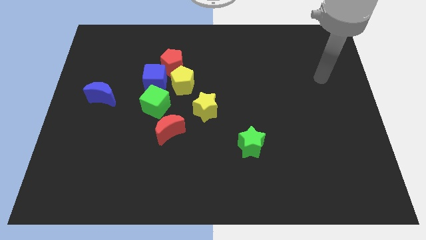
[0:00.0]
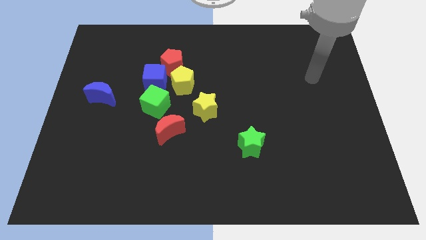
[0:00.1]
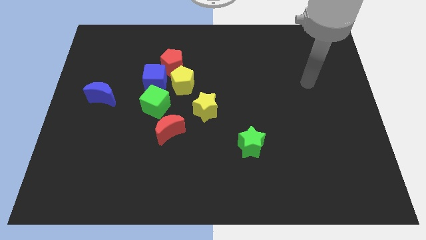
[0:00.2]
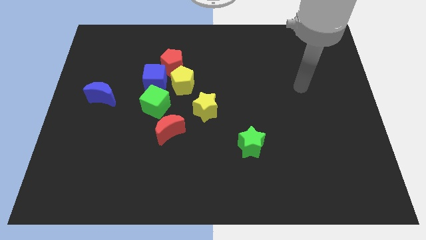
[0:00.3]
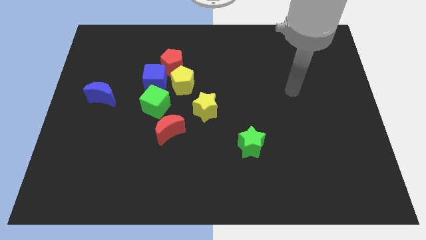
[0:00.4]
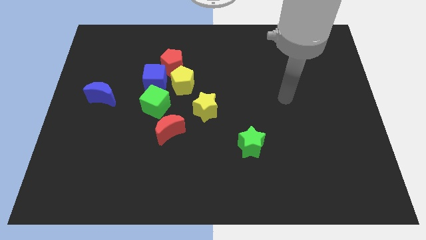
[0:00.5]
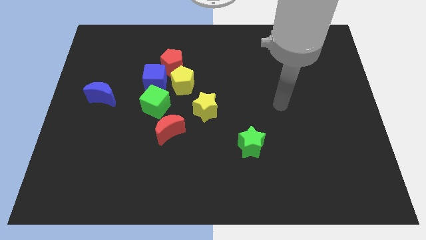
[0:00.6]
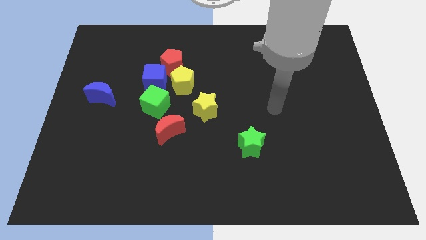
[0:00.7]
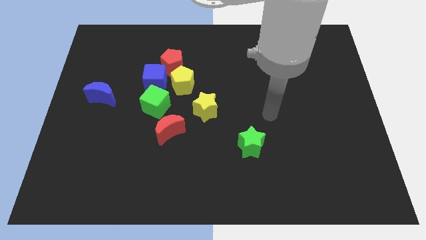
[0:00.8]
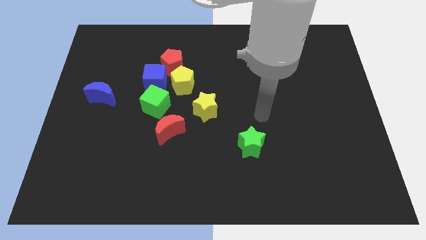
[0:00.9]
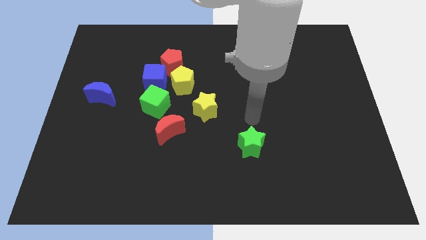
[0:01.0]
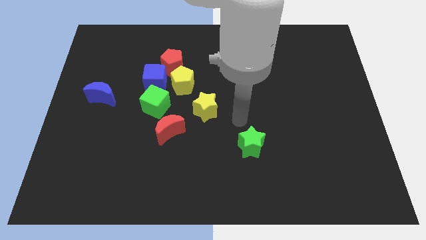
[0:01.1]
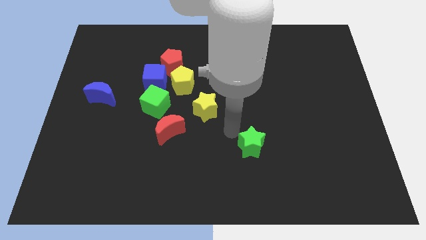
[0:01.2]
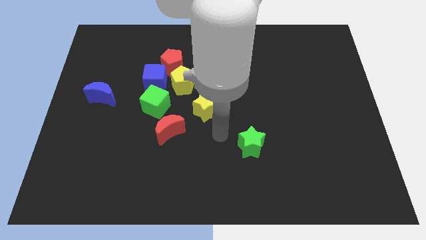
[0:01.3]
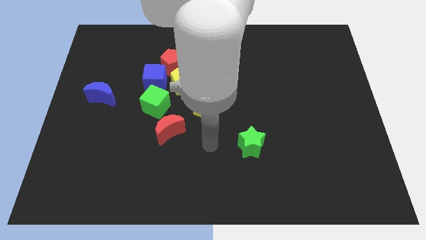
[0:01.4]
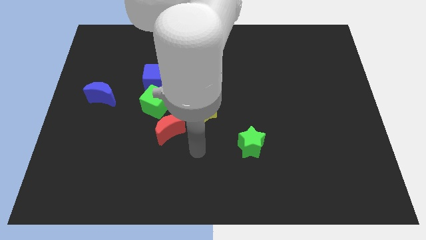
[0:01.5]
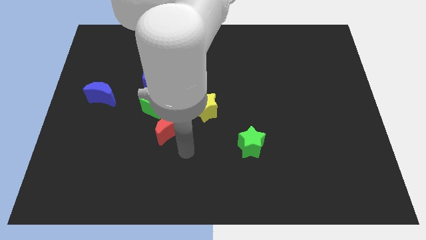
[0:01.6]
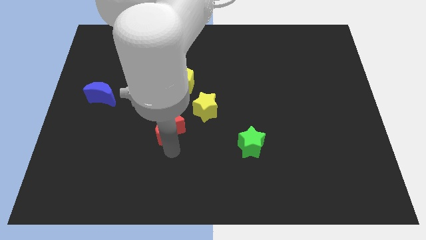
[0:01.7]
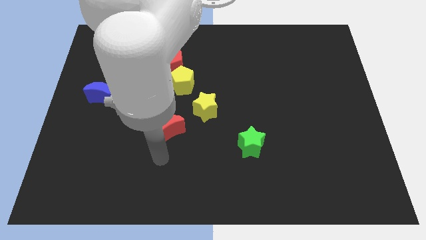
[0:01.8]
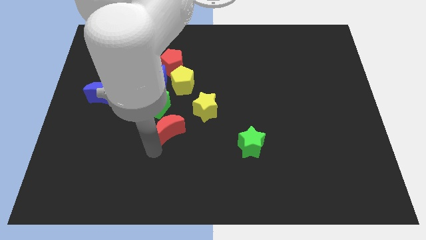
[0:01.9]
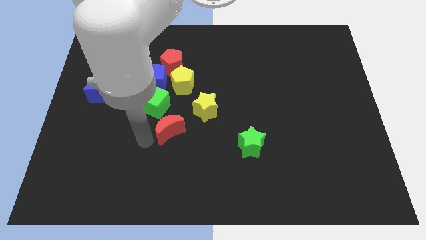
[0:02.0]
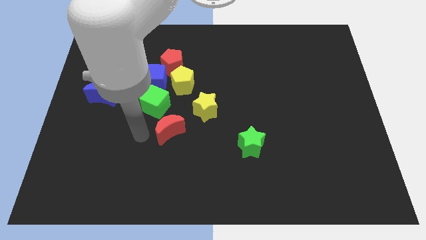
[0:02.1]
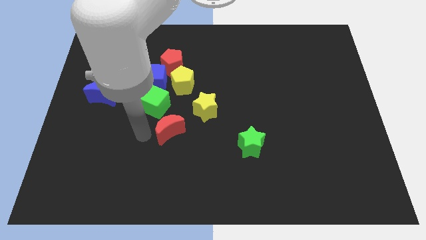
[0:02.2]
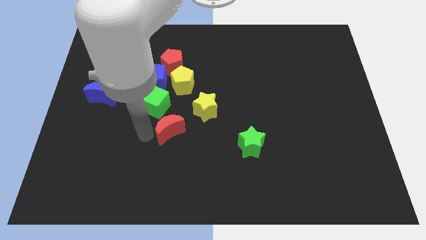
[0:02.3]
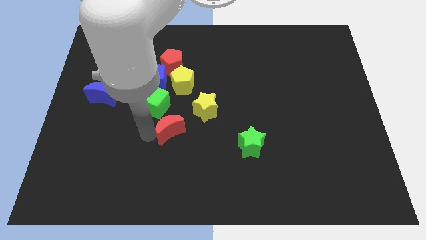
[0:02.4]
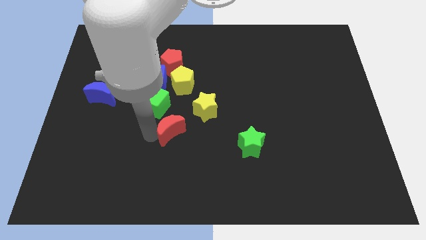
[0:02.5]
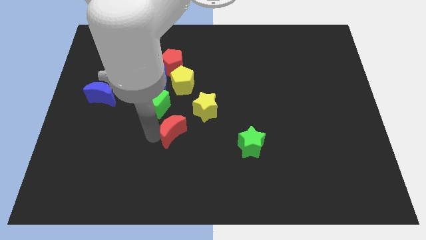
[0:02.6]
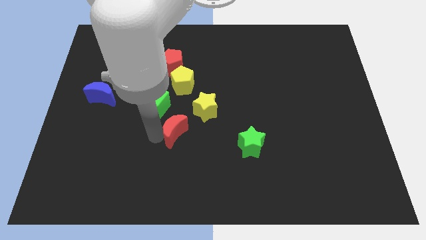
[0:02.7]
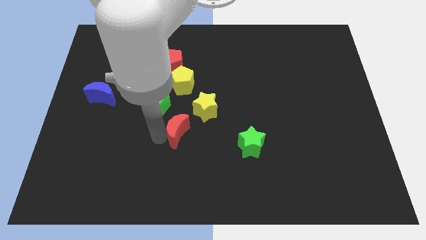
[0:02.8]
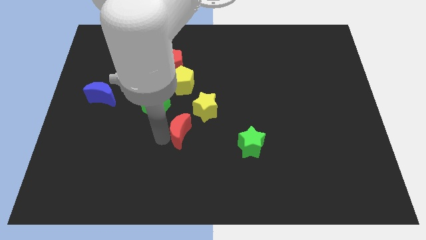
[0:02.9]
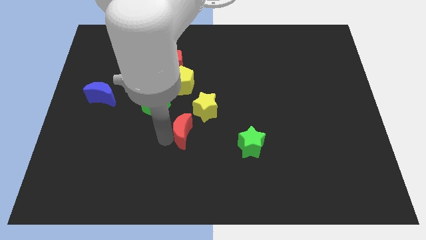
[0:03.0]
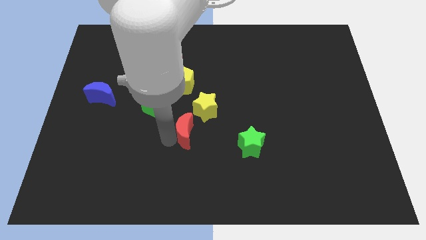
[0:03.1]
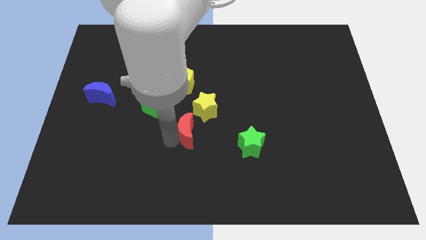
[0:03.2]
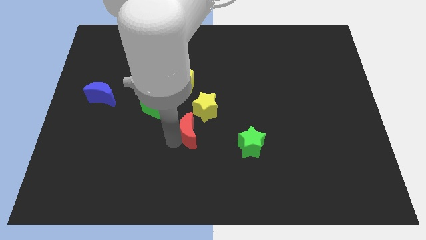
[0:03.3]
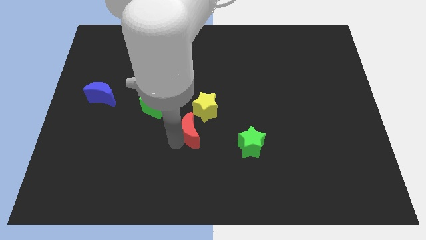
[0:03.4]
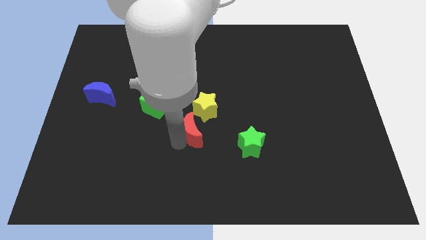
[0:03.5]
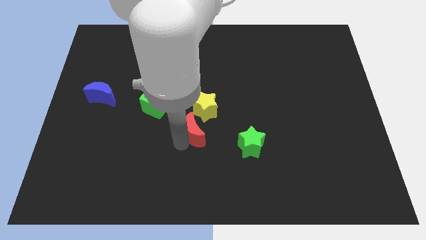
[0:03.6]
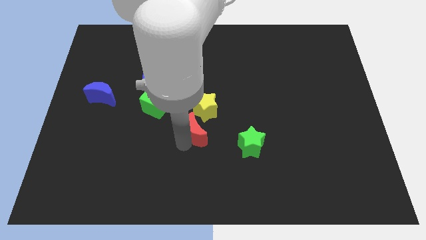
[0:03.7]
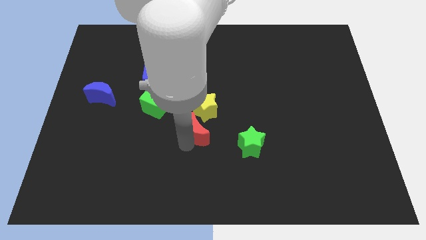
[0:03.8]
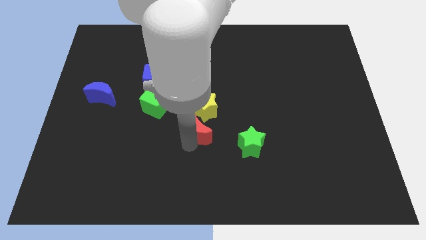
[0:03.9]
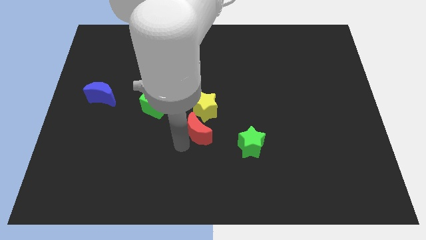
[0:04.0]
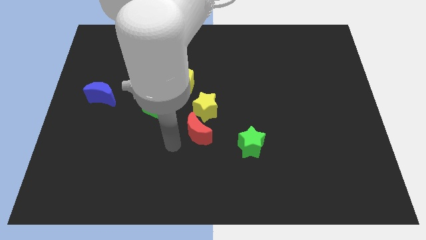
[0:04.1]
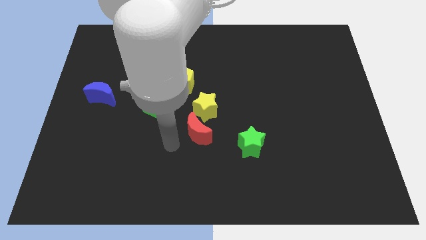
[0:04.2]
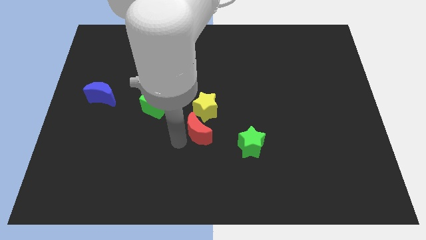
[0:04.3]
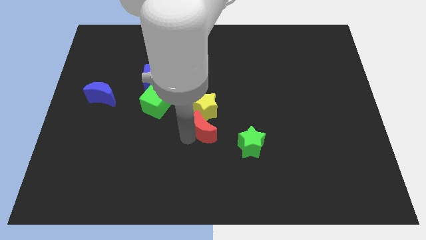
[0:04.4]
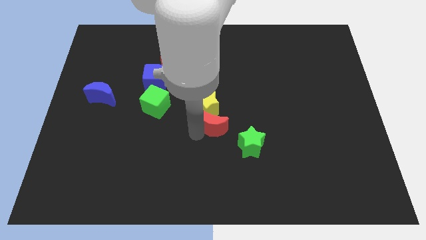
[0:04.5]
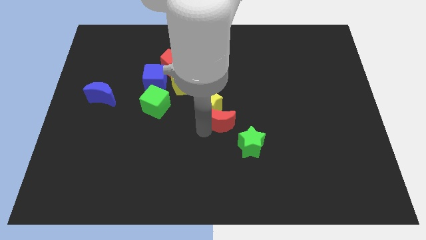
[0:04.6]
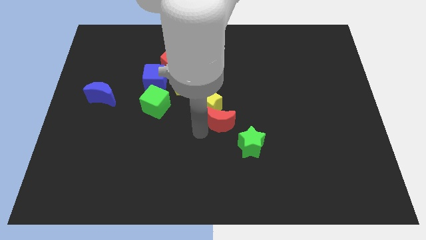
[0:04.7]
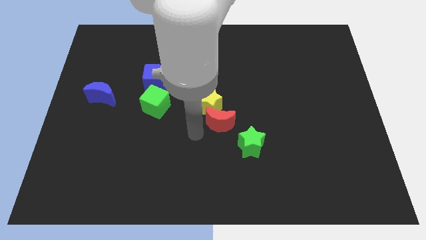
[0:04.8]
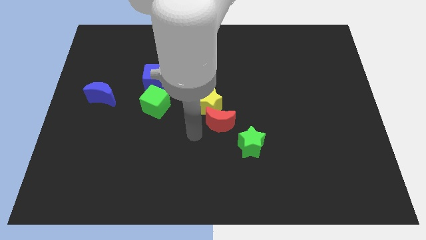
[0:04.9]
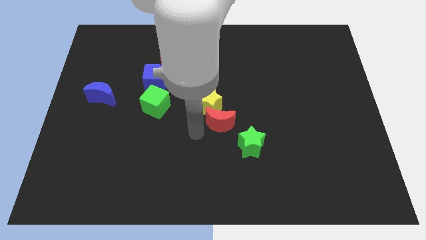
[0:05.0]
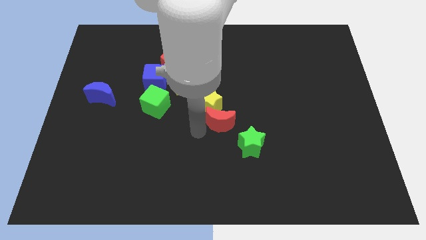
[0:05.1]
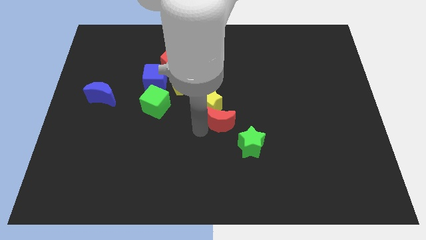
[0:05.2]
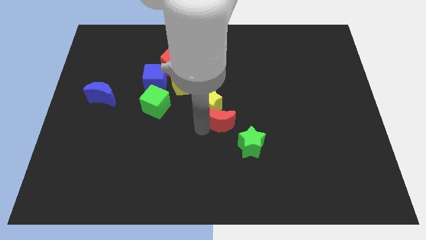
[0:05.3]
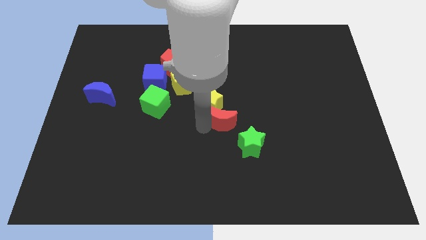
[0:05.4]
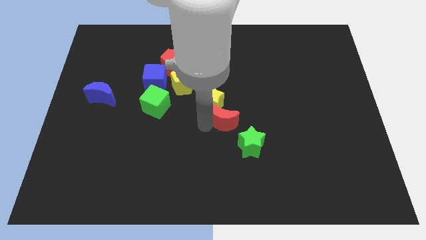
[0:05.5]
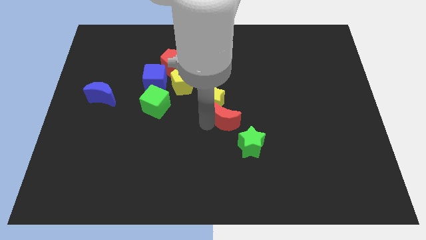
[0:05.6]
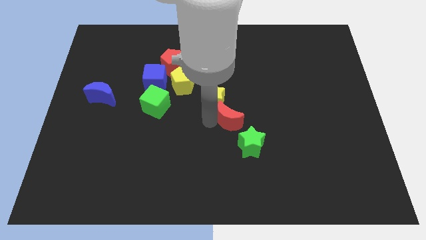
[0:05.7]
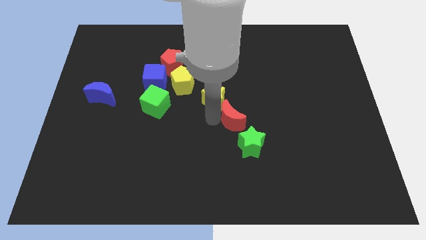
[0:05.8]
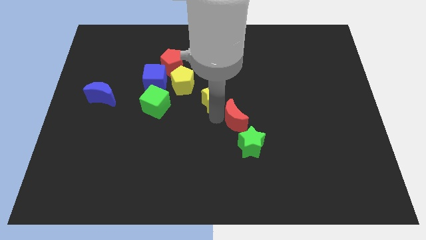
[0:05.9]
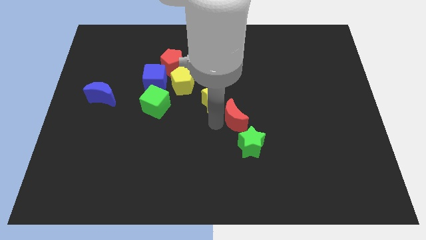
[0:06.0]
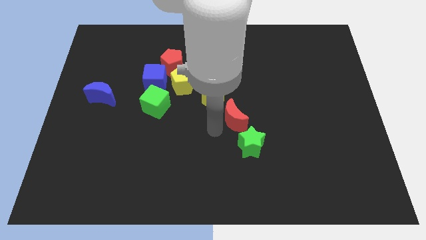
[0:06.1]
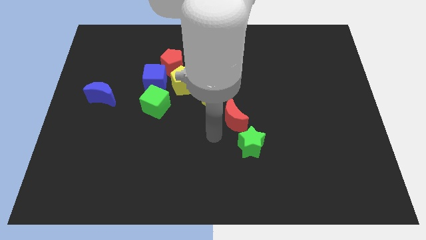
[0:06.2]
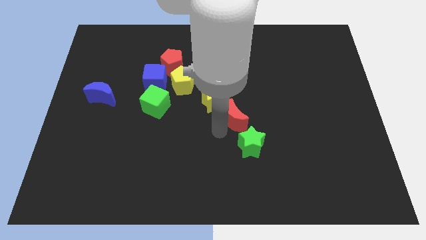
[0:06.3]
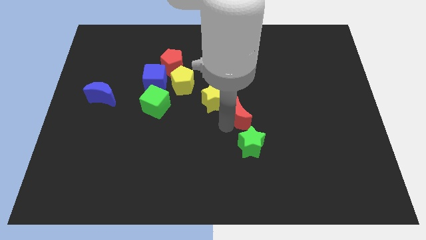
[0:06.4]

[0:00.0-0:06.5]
slide the red moon just right of the yellow star

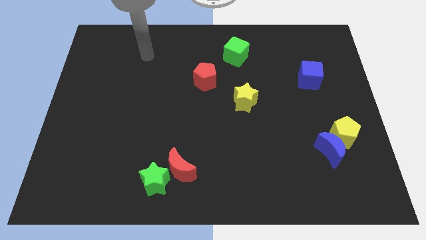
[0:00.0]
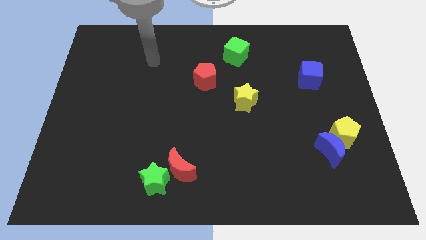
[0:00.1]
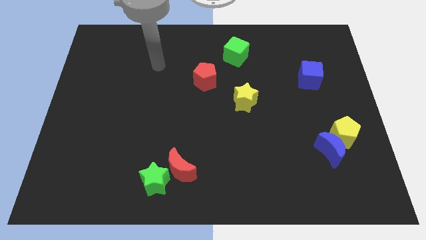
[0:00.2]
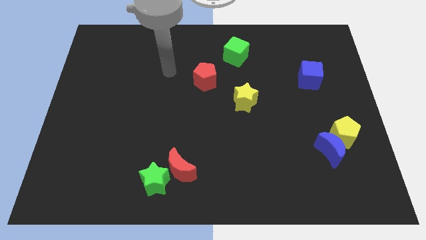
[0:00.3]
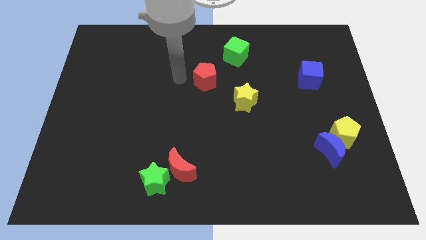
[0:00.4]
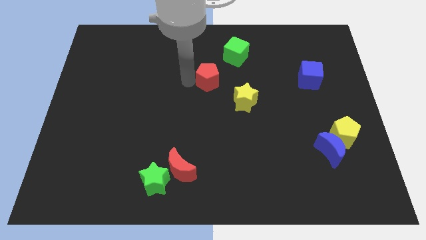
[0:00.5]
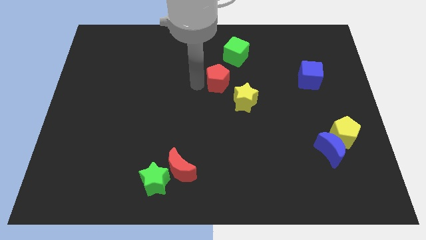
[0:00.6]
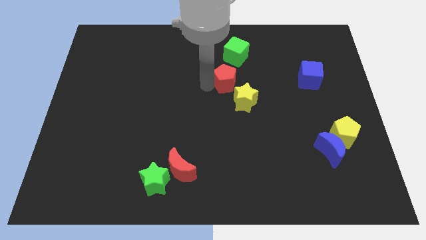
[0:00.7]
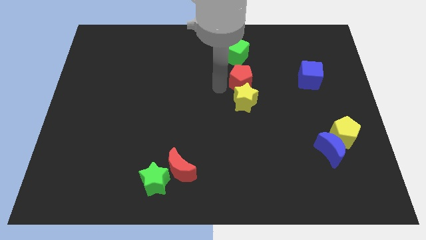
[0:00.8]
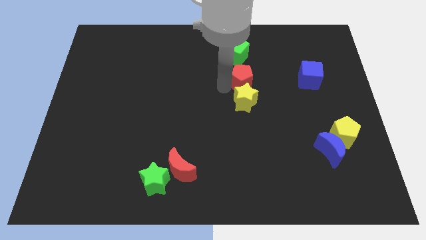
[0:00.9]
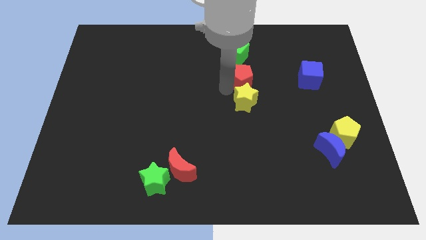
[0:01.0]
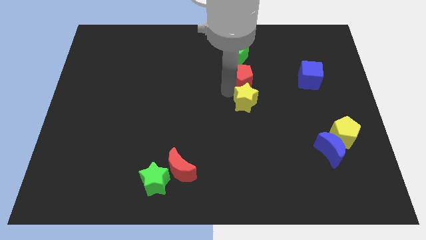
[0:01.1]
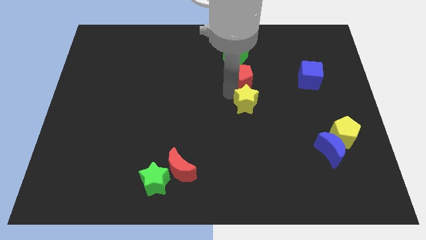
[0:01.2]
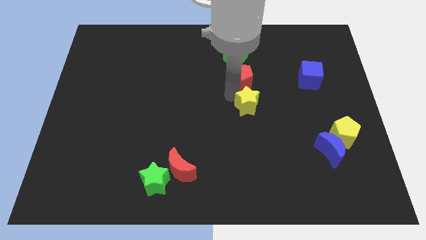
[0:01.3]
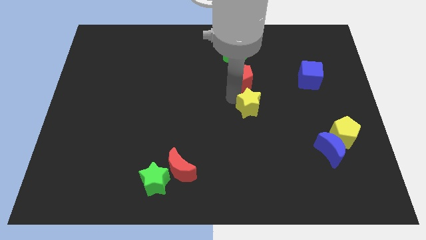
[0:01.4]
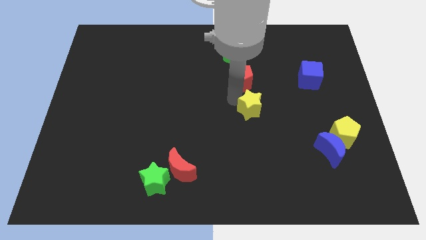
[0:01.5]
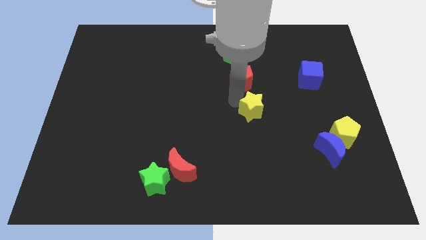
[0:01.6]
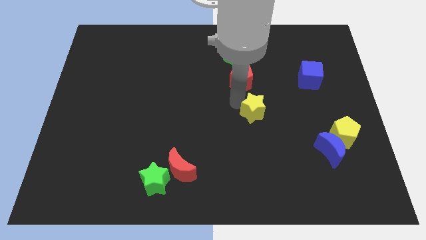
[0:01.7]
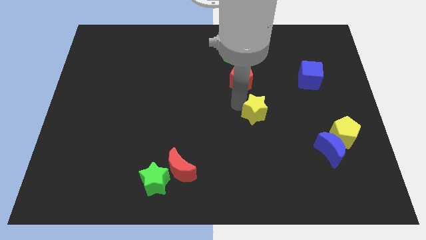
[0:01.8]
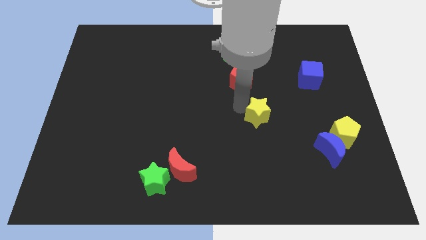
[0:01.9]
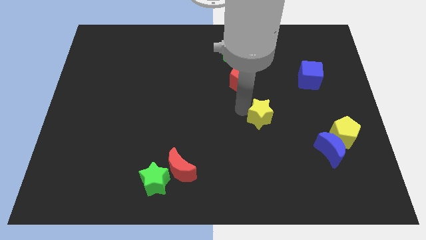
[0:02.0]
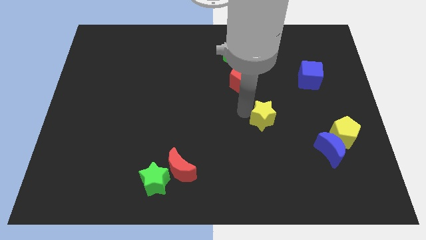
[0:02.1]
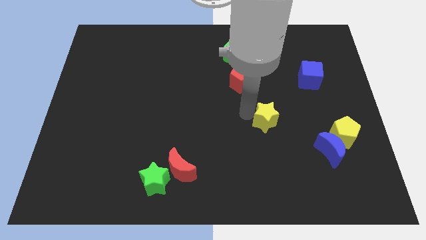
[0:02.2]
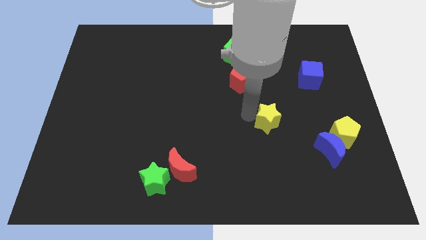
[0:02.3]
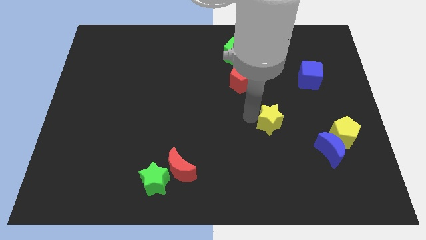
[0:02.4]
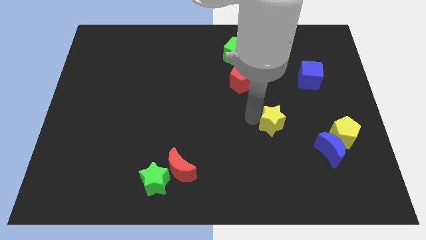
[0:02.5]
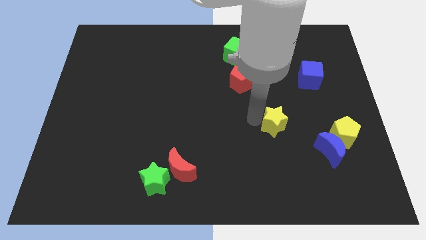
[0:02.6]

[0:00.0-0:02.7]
push the yellow star left of the yellow pentagon
